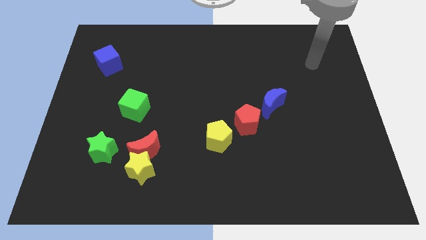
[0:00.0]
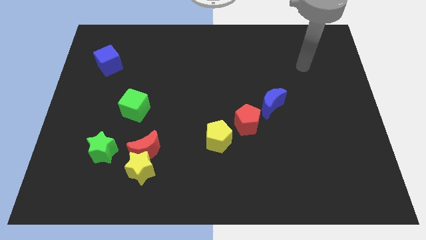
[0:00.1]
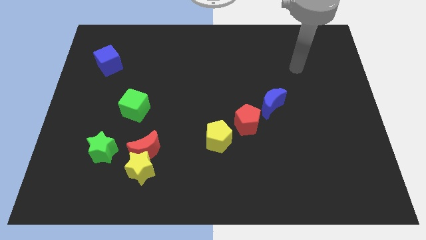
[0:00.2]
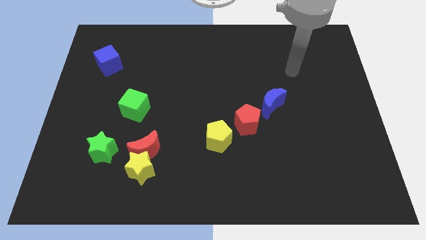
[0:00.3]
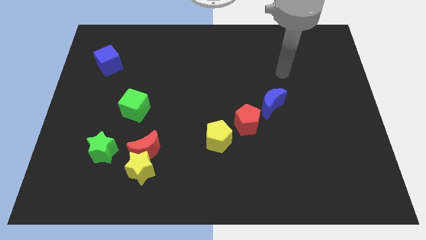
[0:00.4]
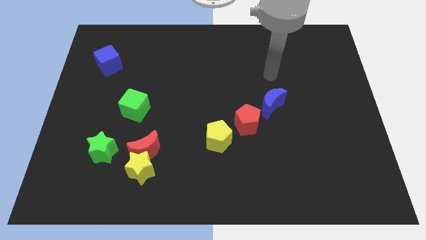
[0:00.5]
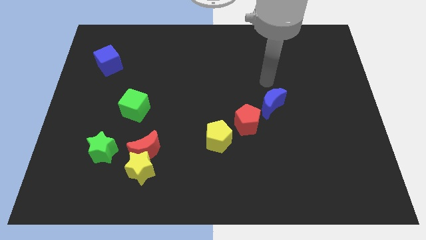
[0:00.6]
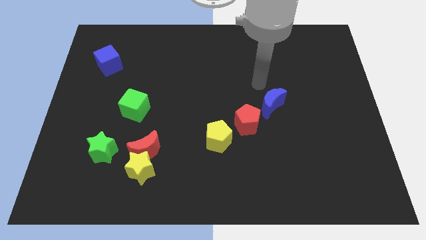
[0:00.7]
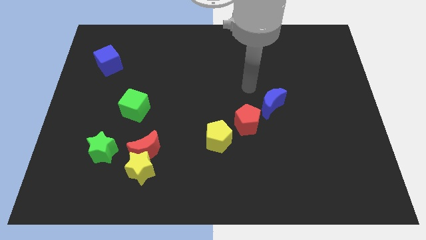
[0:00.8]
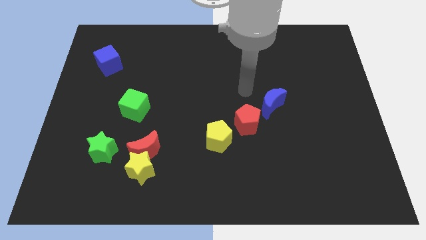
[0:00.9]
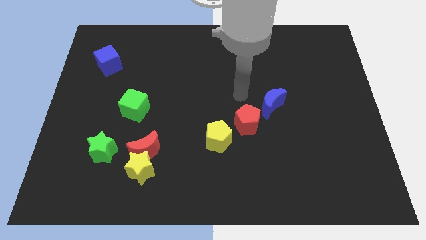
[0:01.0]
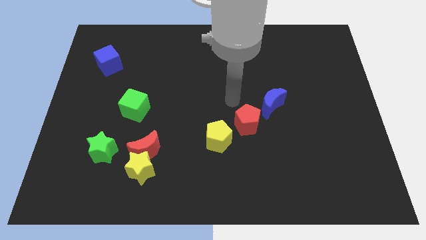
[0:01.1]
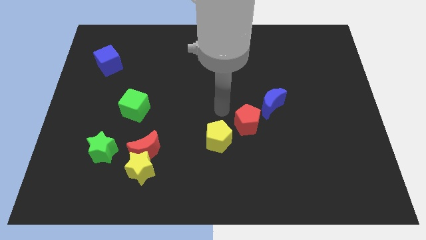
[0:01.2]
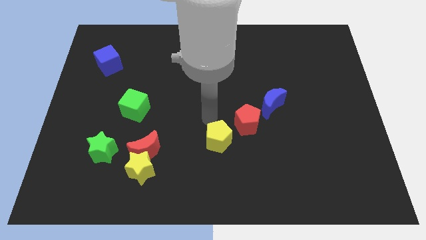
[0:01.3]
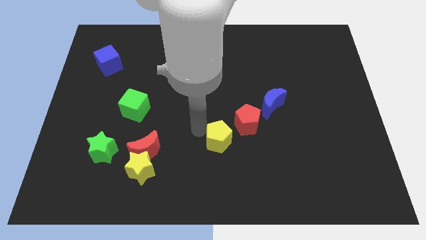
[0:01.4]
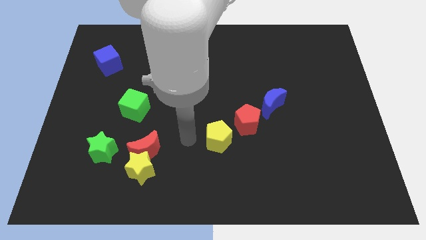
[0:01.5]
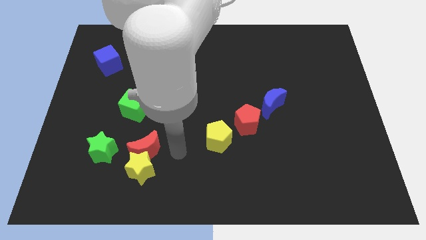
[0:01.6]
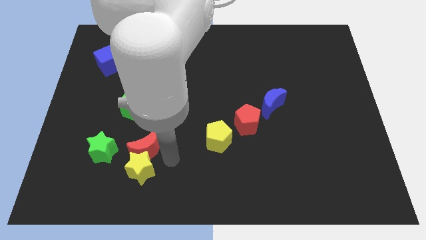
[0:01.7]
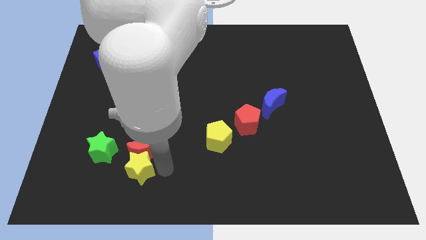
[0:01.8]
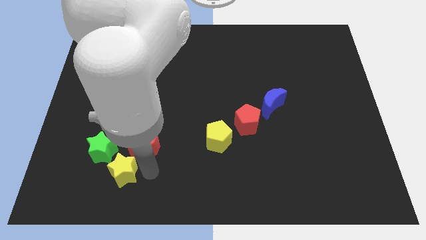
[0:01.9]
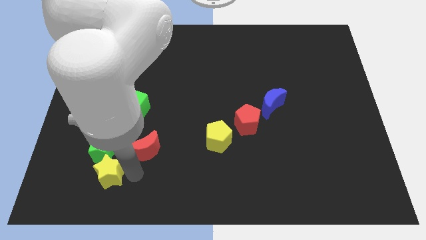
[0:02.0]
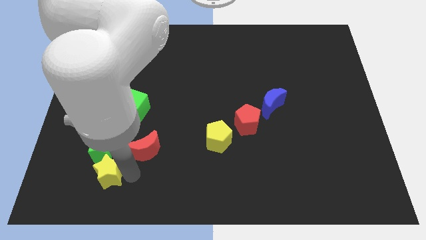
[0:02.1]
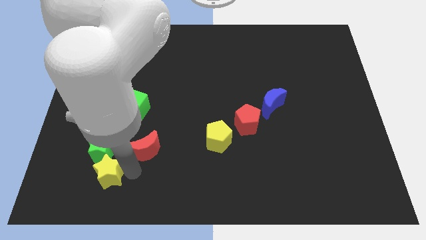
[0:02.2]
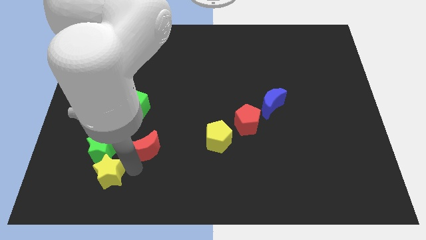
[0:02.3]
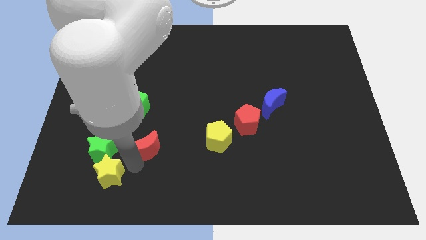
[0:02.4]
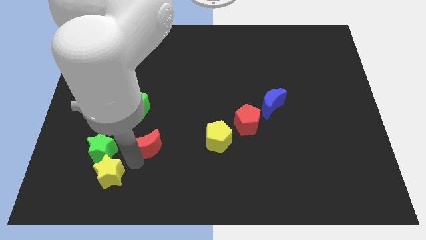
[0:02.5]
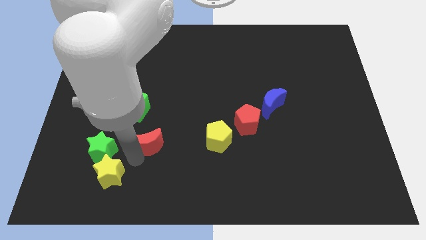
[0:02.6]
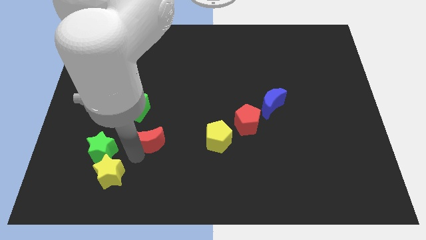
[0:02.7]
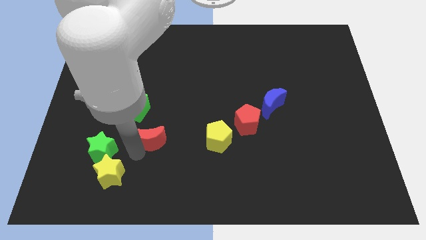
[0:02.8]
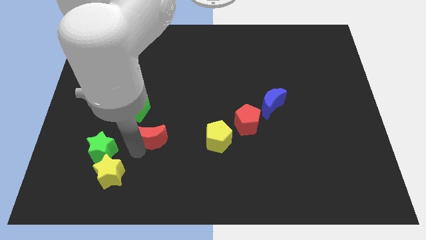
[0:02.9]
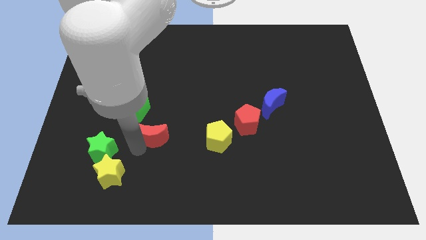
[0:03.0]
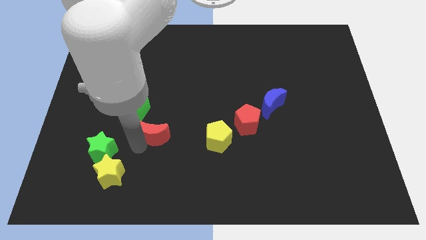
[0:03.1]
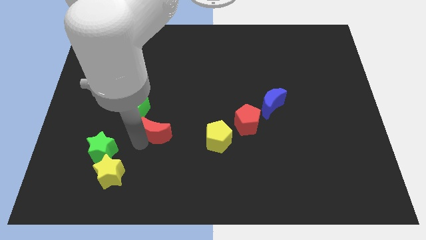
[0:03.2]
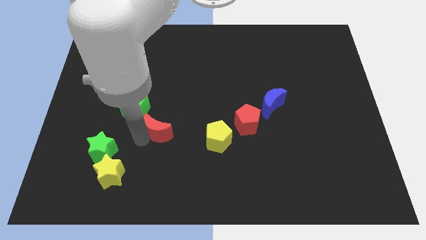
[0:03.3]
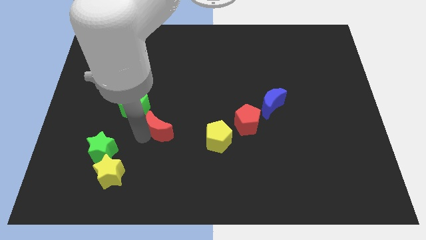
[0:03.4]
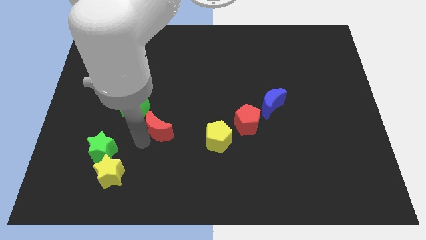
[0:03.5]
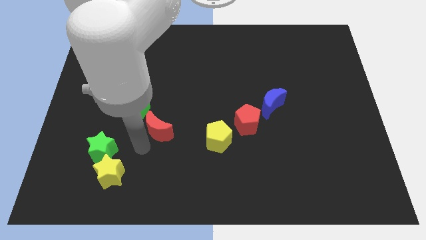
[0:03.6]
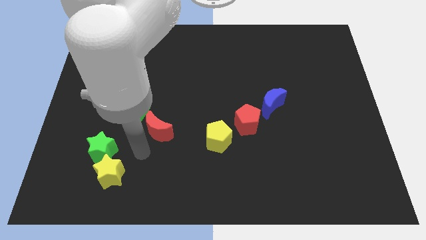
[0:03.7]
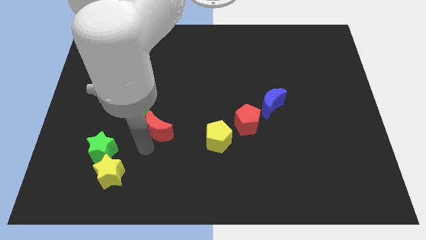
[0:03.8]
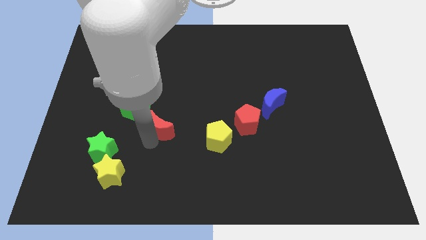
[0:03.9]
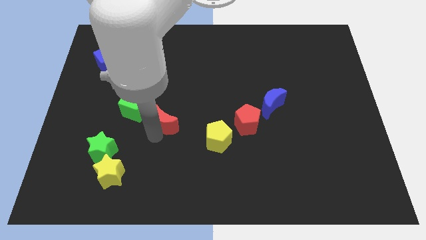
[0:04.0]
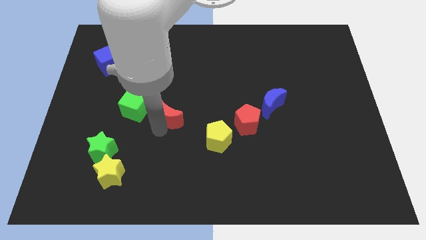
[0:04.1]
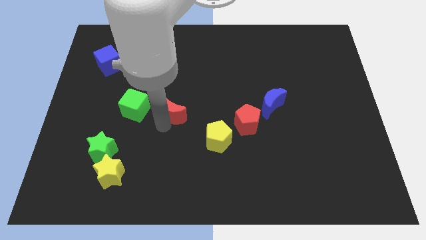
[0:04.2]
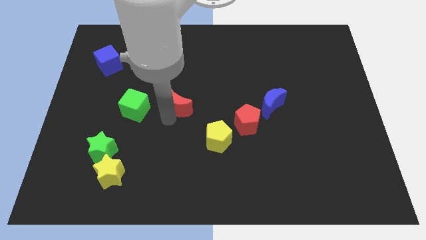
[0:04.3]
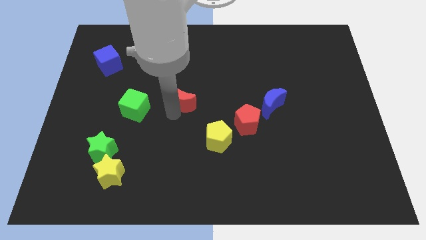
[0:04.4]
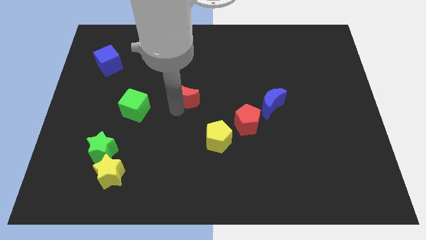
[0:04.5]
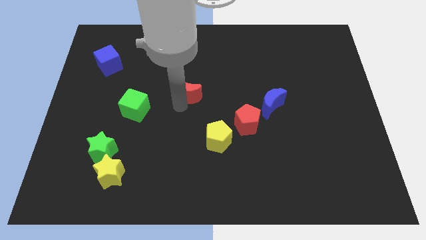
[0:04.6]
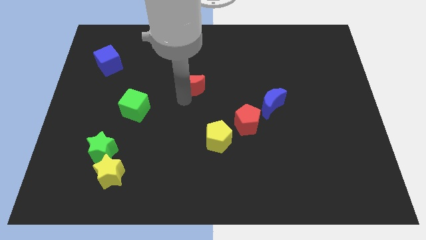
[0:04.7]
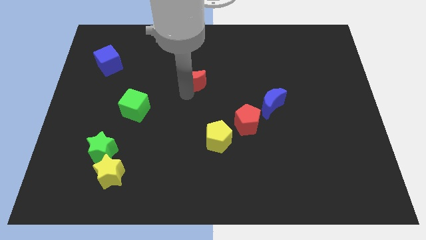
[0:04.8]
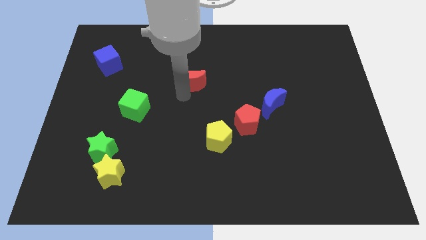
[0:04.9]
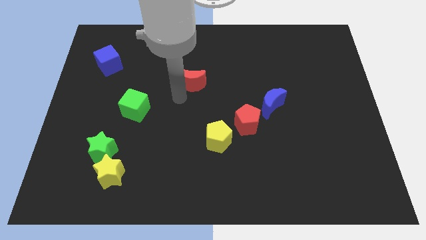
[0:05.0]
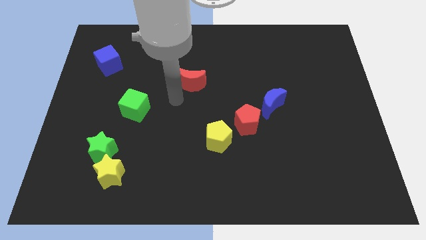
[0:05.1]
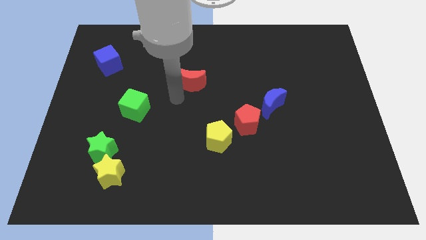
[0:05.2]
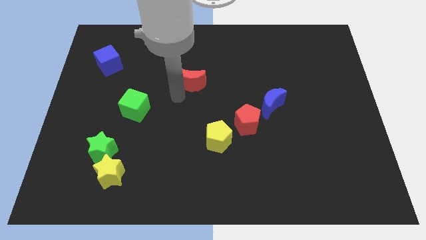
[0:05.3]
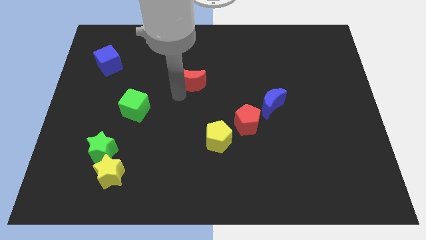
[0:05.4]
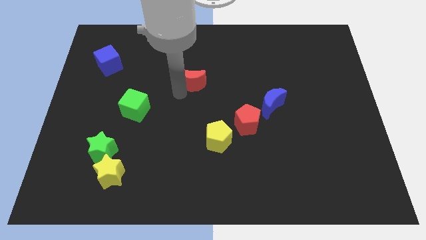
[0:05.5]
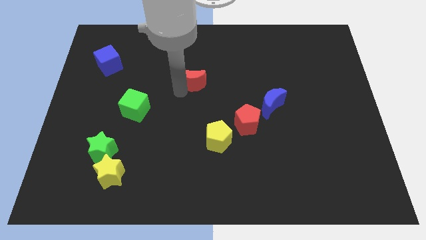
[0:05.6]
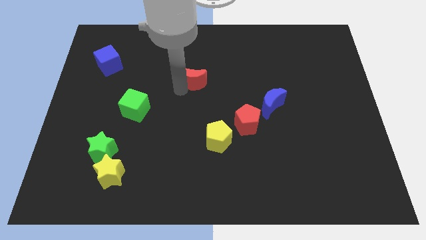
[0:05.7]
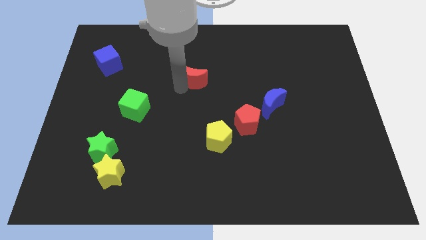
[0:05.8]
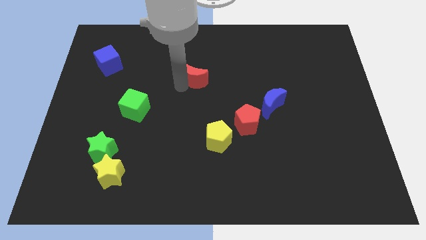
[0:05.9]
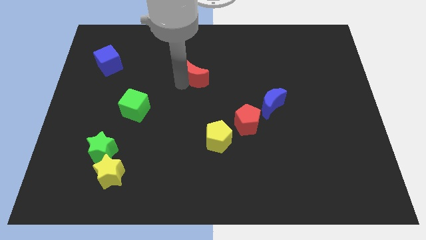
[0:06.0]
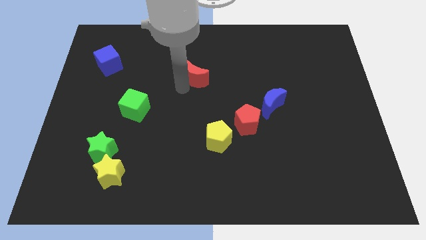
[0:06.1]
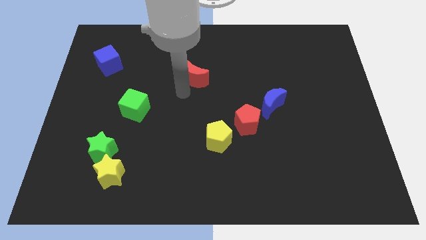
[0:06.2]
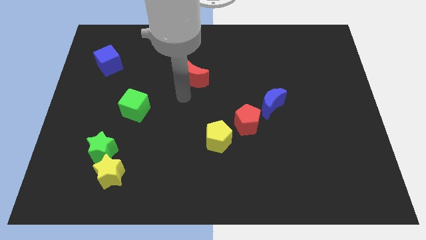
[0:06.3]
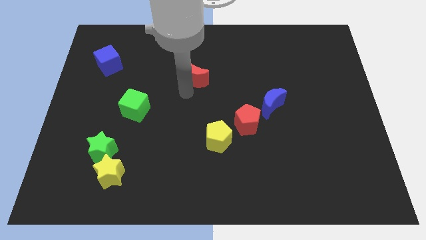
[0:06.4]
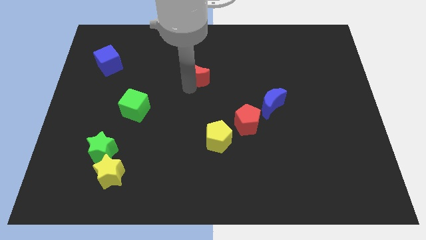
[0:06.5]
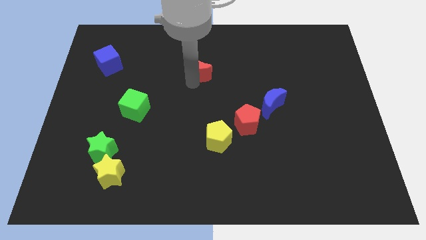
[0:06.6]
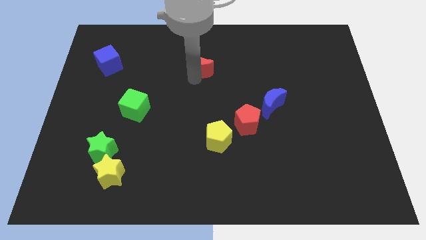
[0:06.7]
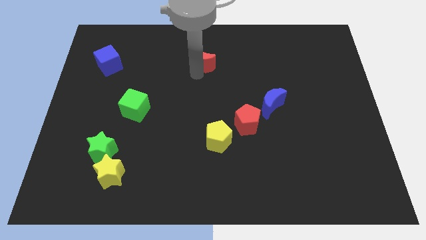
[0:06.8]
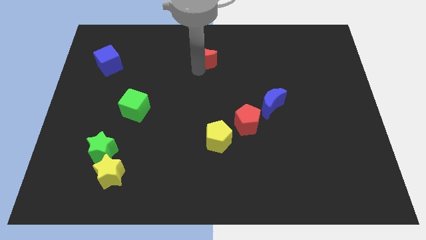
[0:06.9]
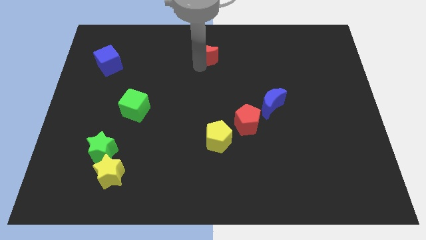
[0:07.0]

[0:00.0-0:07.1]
push the red moon to the top
